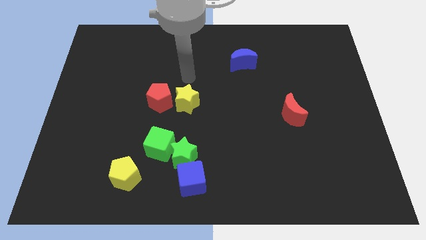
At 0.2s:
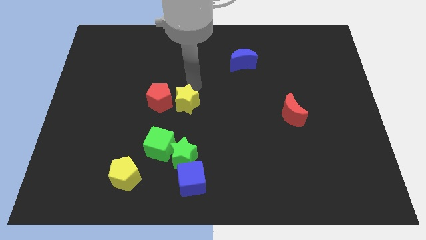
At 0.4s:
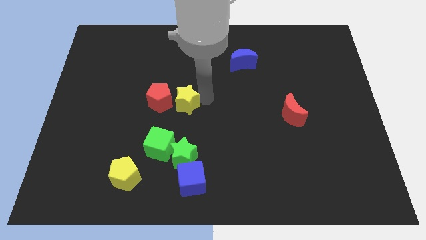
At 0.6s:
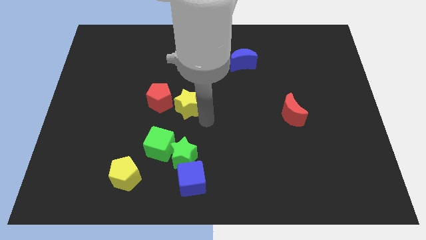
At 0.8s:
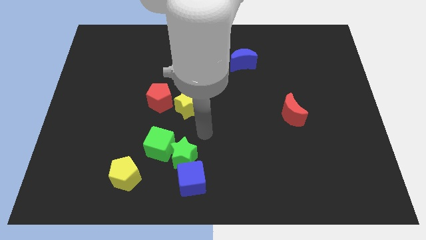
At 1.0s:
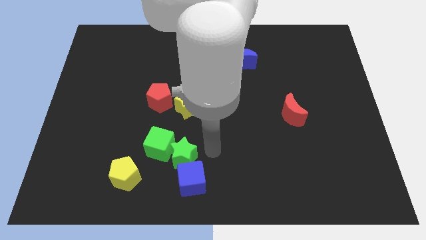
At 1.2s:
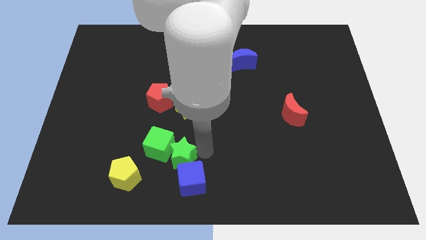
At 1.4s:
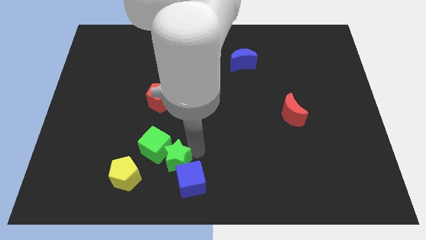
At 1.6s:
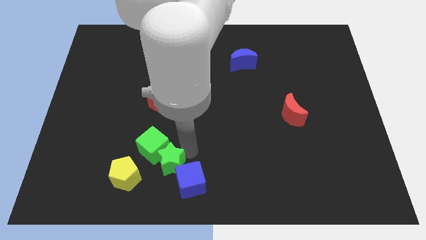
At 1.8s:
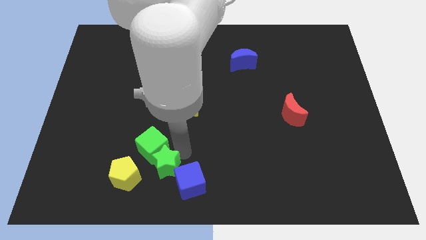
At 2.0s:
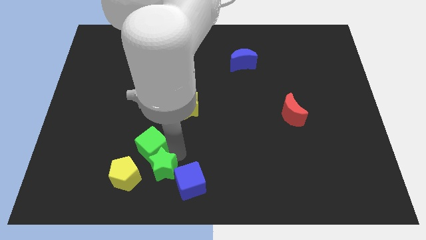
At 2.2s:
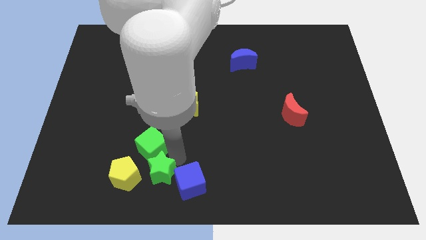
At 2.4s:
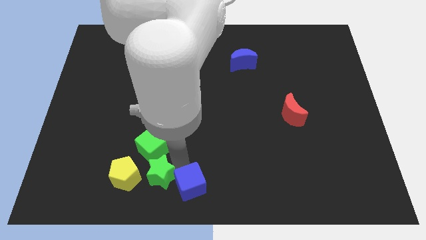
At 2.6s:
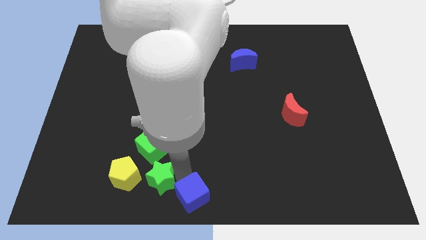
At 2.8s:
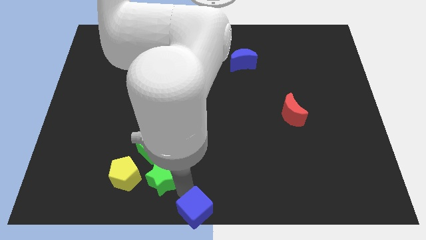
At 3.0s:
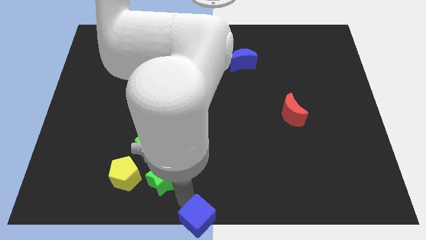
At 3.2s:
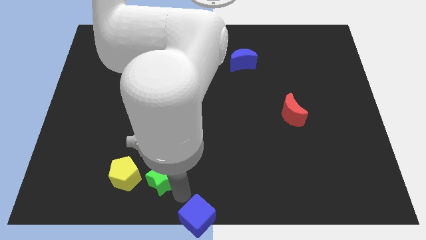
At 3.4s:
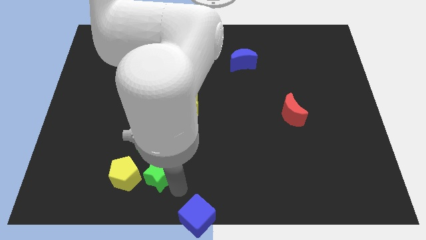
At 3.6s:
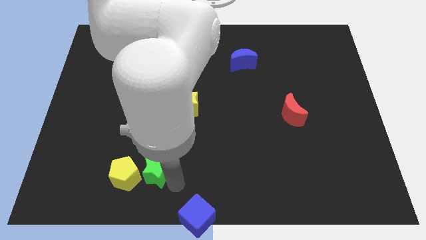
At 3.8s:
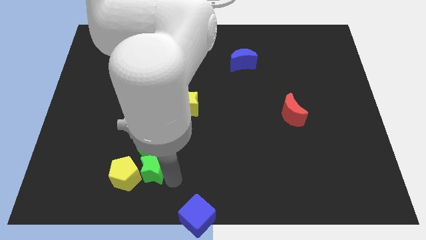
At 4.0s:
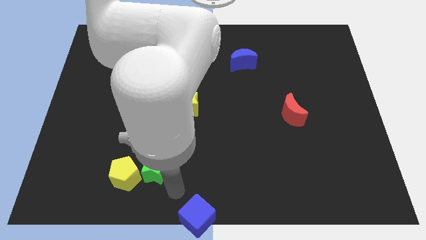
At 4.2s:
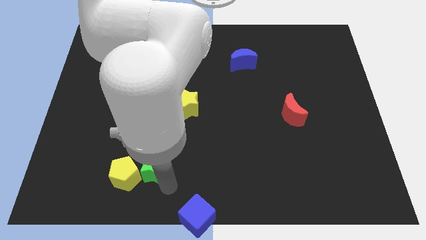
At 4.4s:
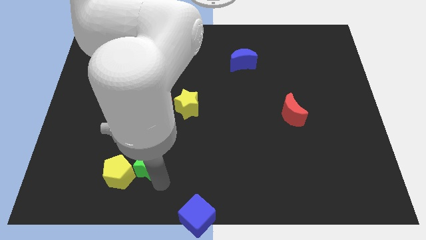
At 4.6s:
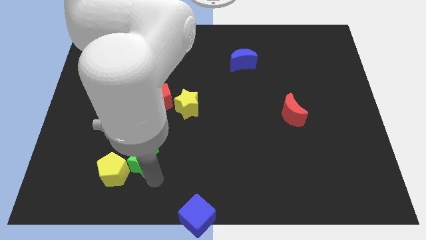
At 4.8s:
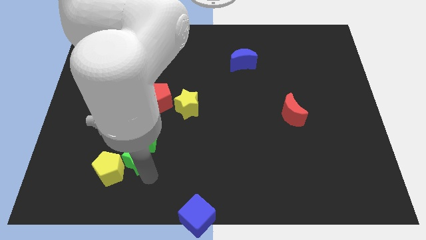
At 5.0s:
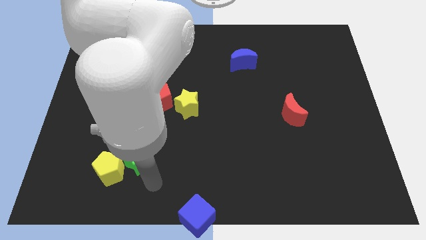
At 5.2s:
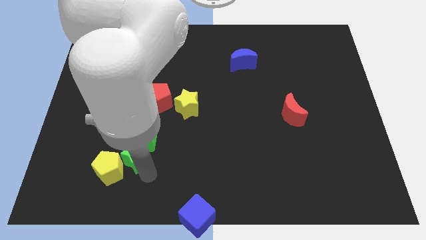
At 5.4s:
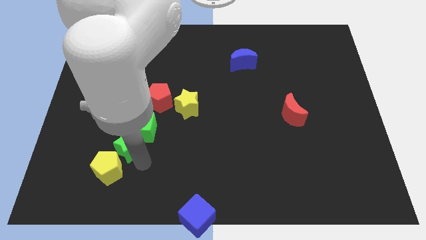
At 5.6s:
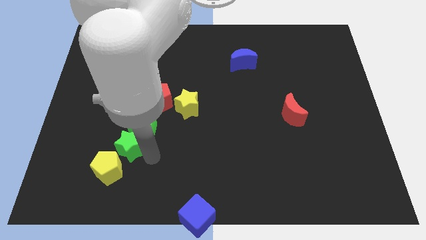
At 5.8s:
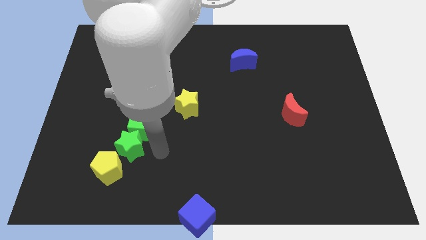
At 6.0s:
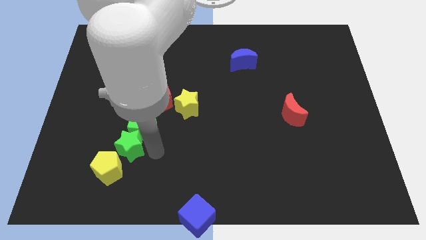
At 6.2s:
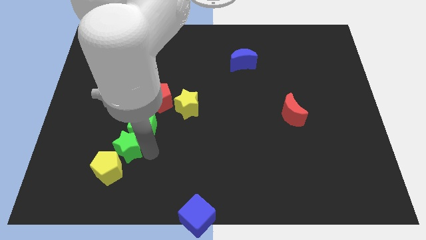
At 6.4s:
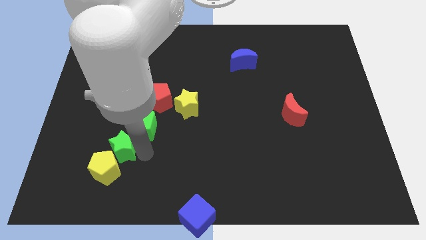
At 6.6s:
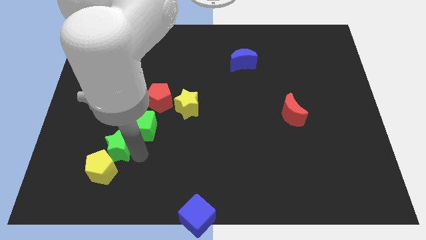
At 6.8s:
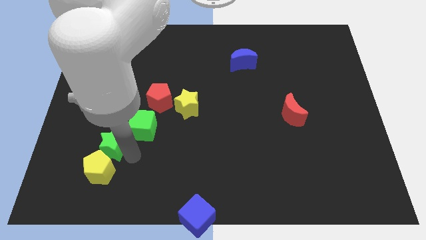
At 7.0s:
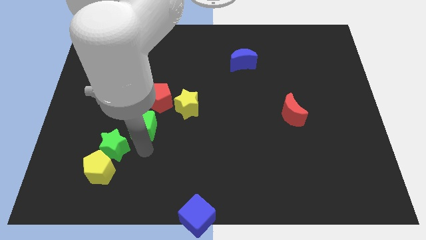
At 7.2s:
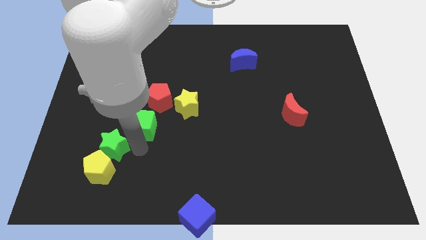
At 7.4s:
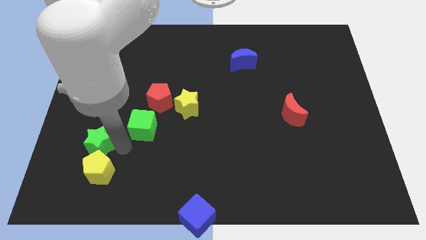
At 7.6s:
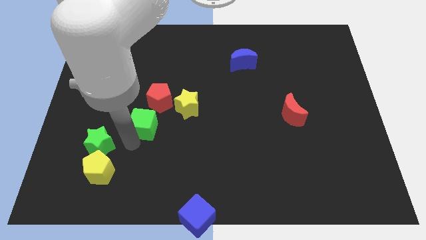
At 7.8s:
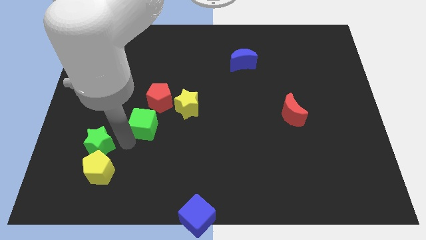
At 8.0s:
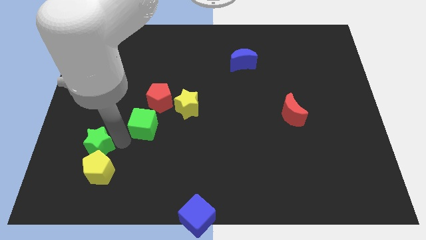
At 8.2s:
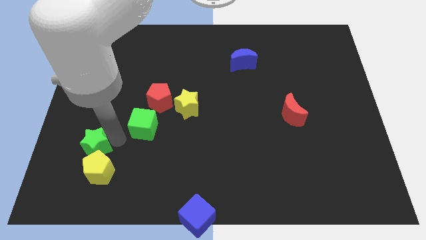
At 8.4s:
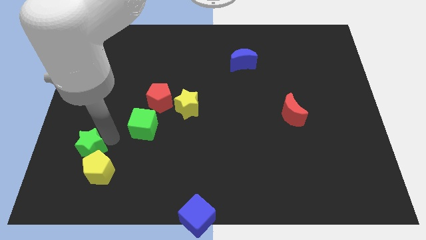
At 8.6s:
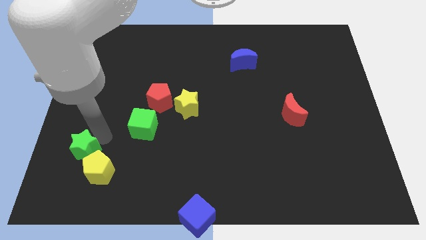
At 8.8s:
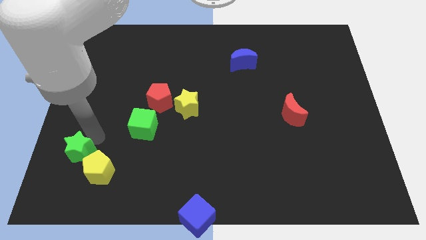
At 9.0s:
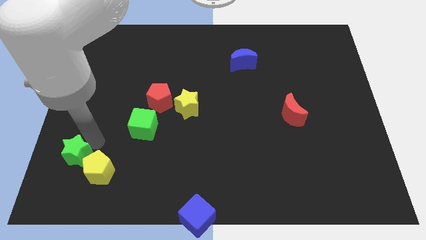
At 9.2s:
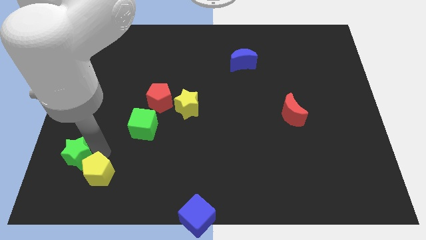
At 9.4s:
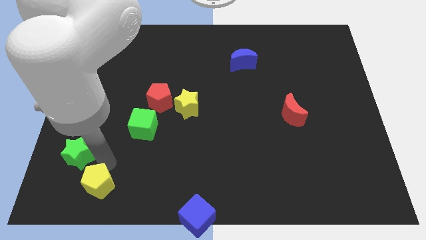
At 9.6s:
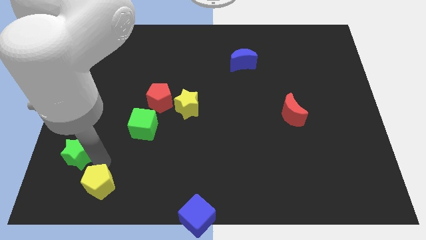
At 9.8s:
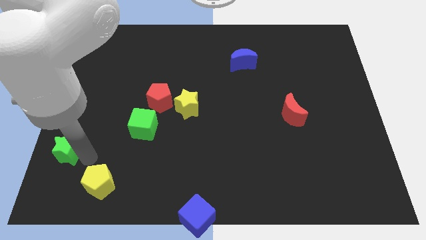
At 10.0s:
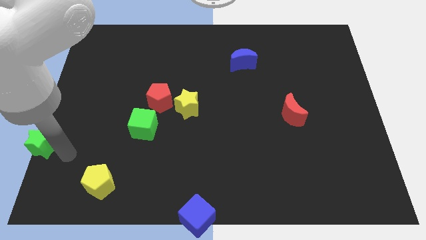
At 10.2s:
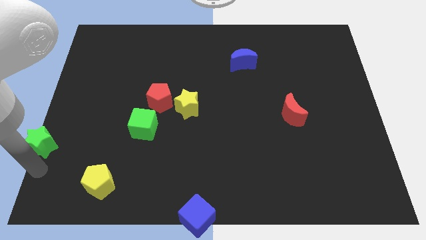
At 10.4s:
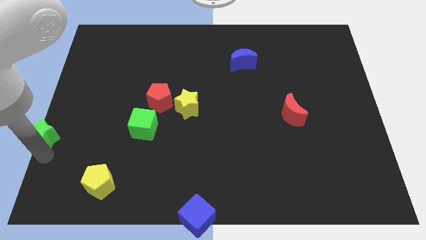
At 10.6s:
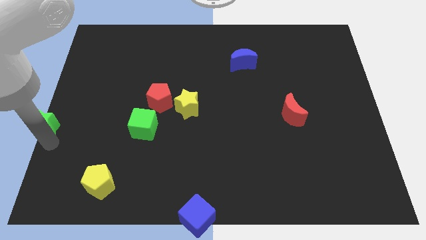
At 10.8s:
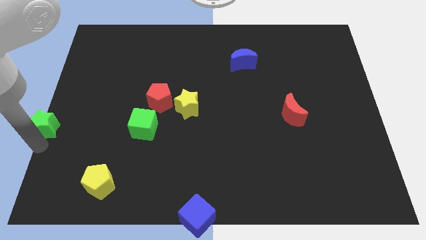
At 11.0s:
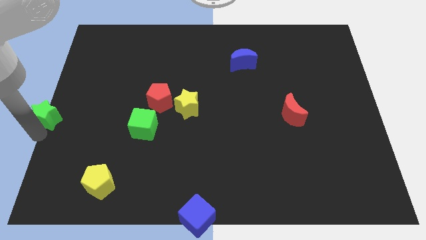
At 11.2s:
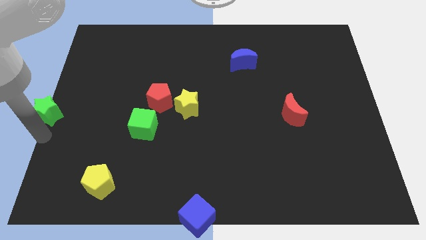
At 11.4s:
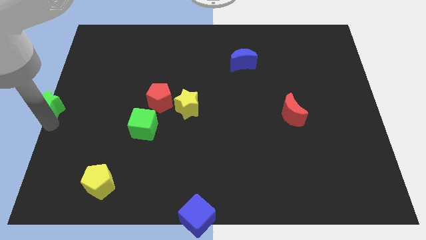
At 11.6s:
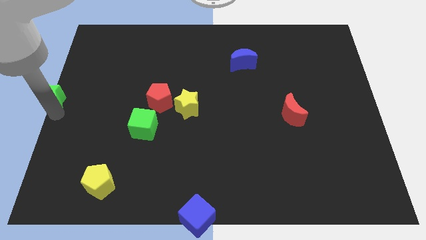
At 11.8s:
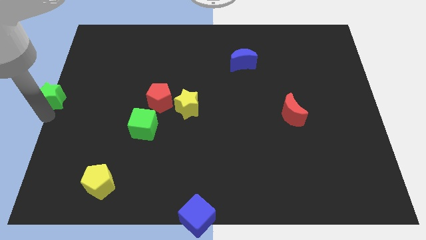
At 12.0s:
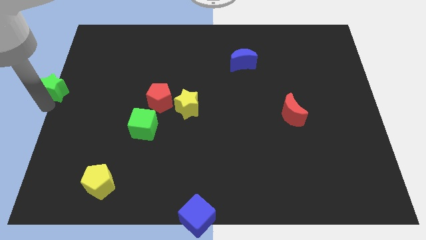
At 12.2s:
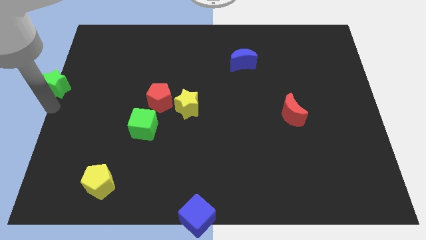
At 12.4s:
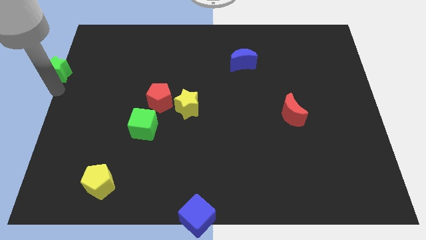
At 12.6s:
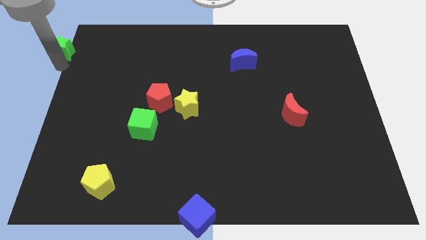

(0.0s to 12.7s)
put the green star to the top left
